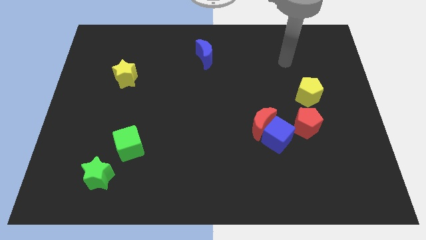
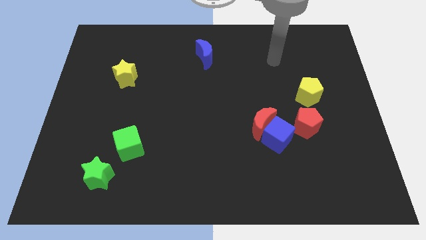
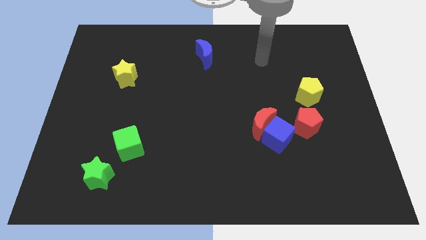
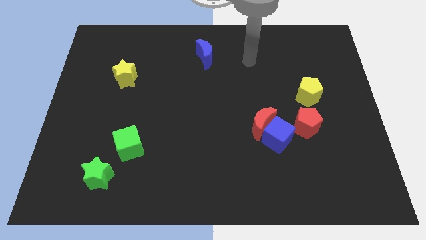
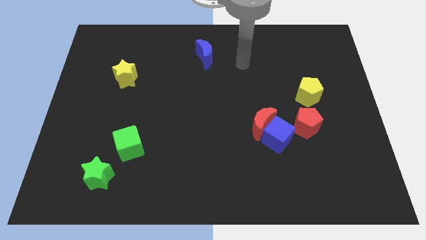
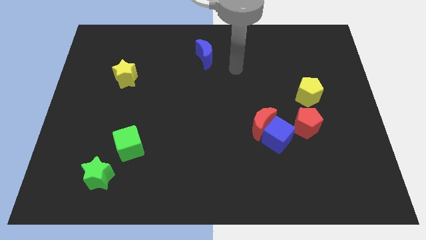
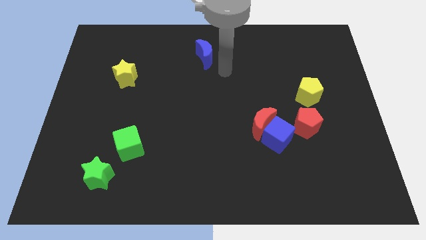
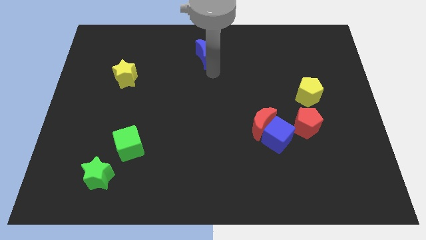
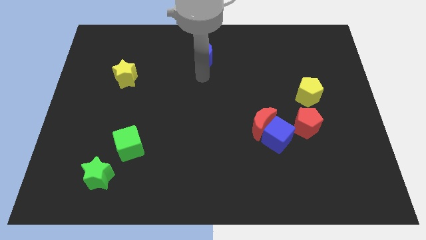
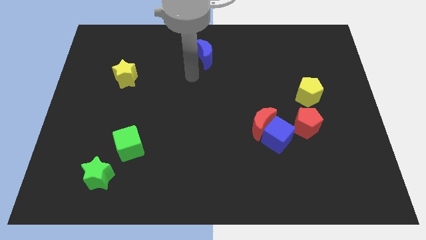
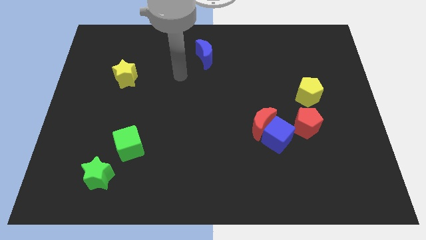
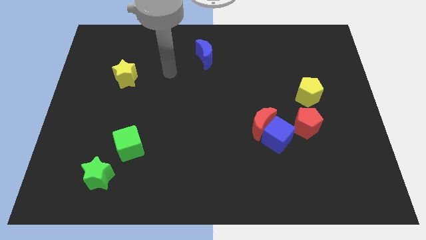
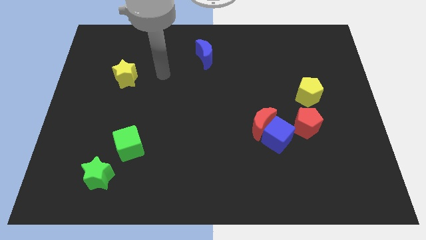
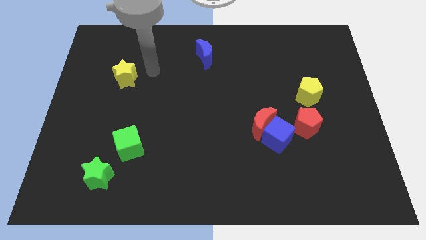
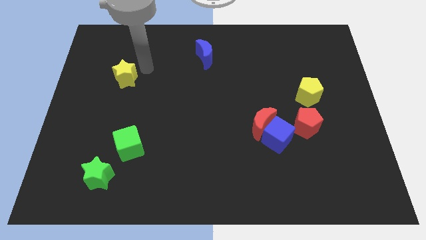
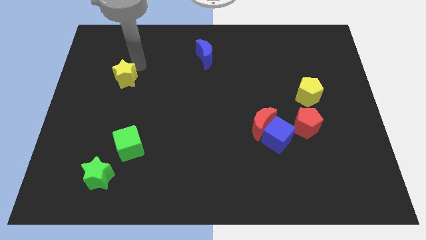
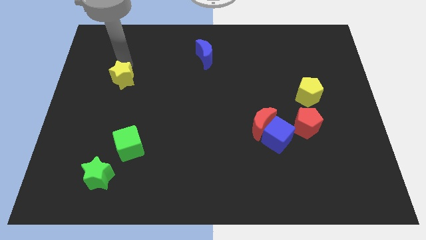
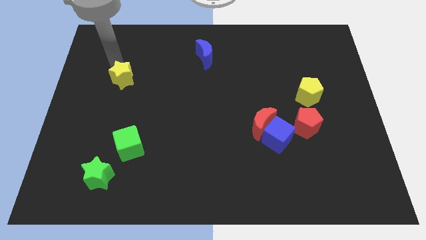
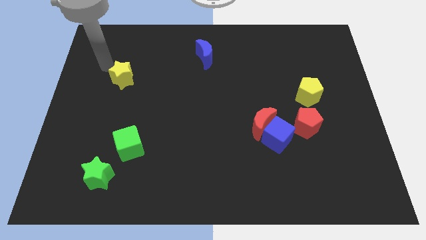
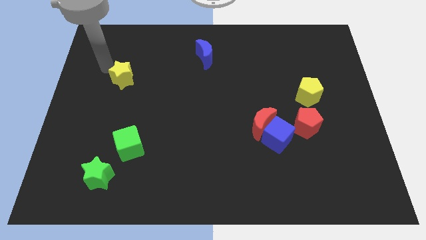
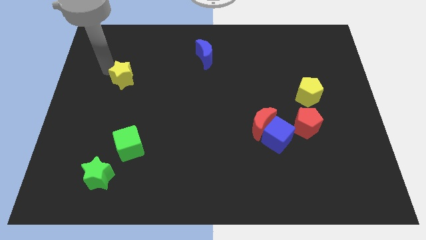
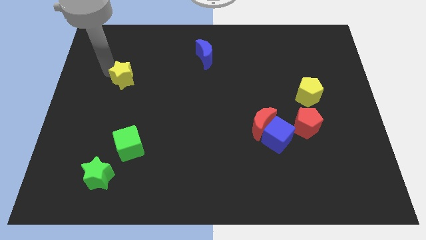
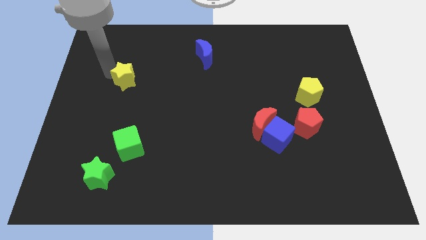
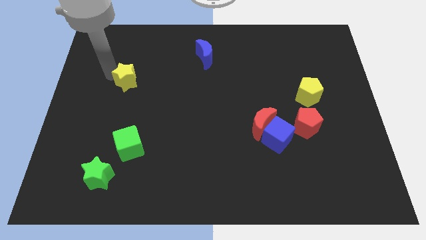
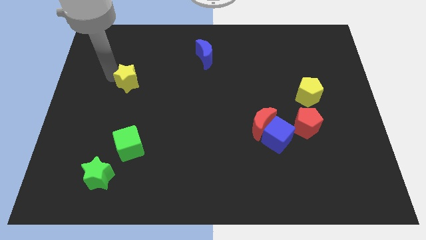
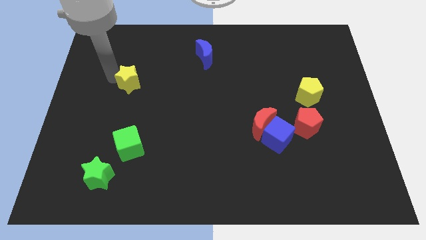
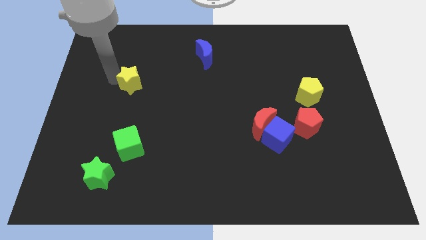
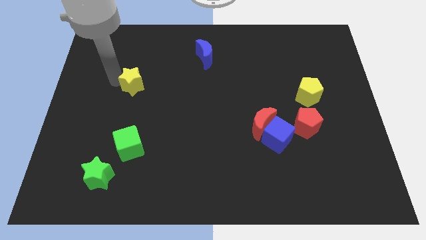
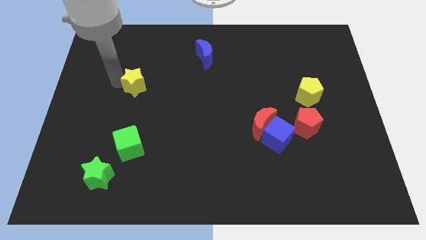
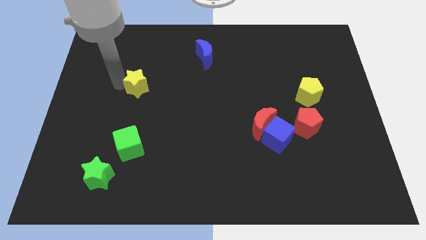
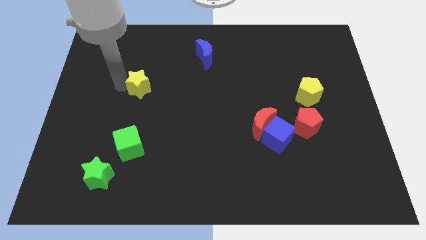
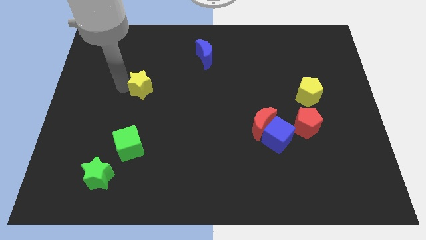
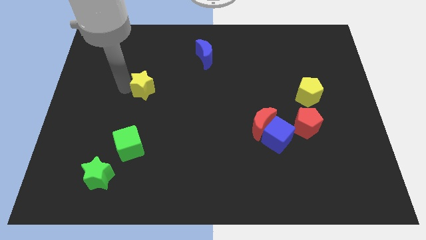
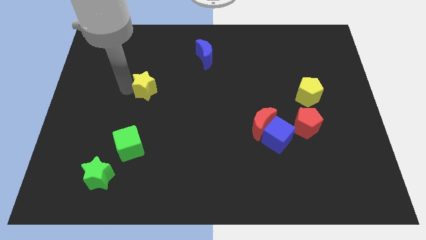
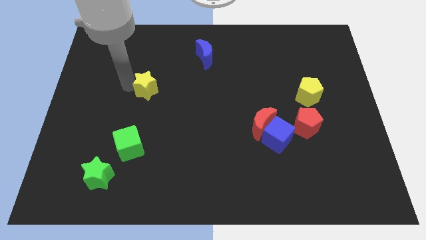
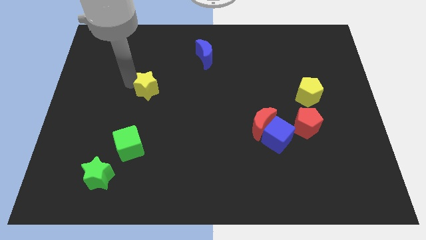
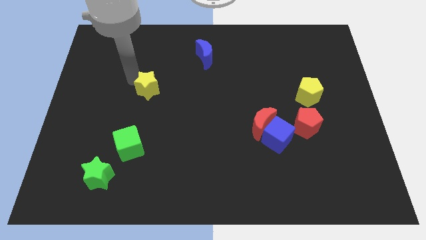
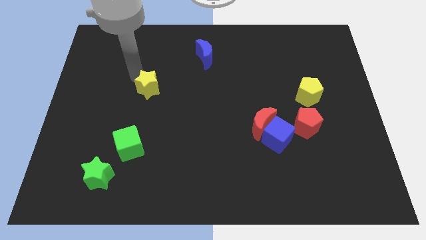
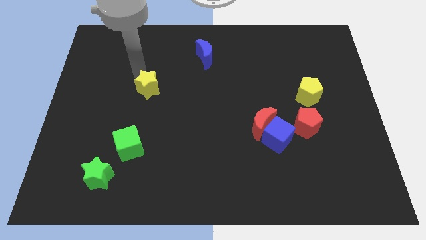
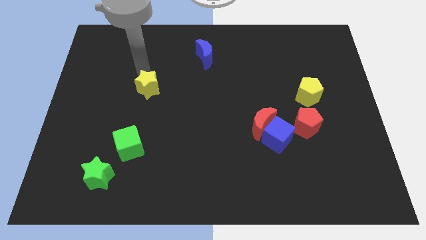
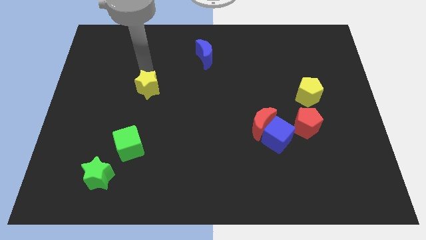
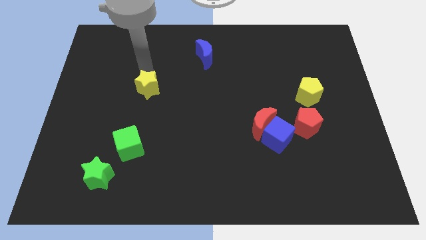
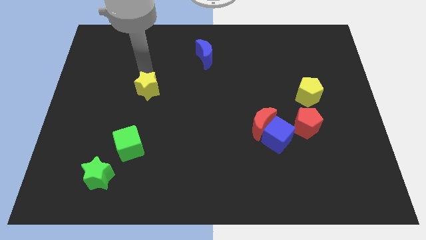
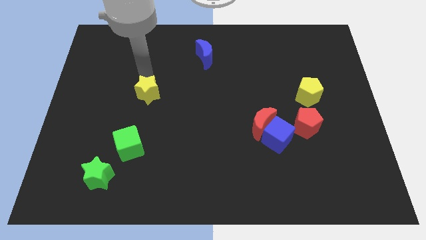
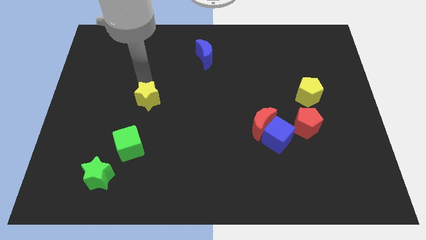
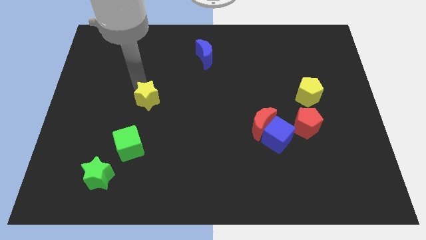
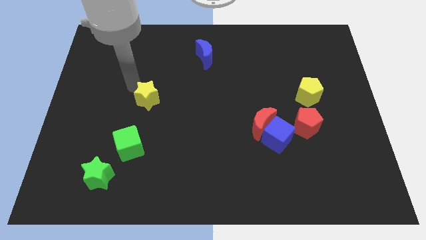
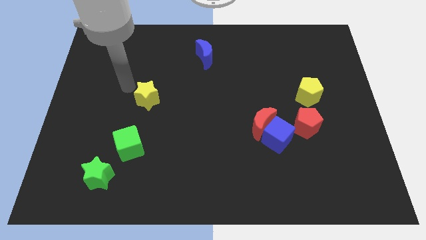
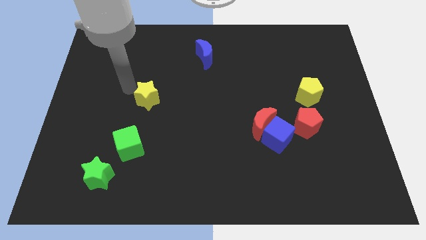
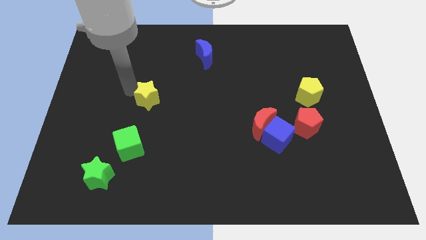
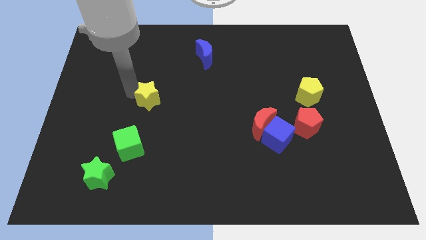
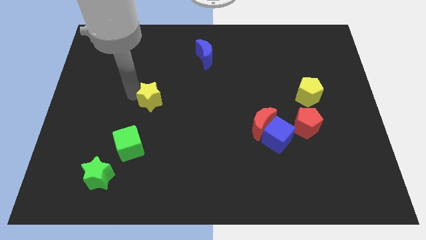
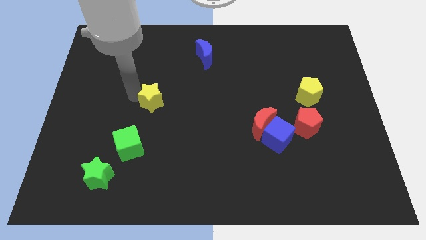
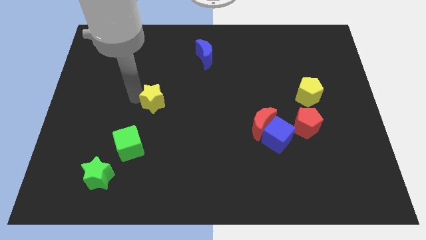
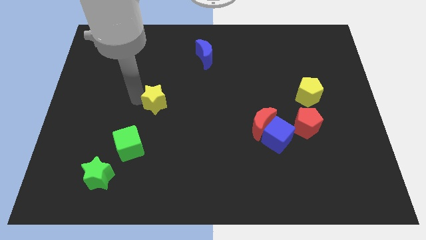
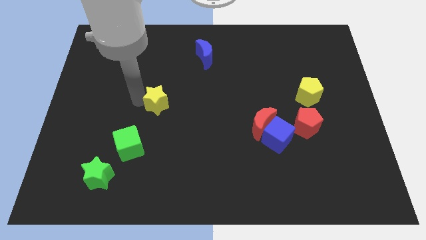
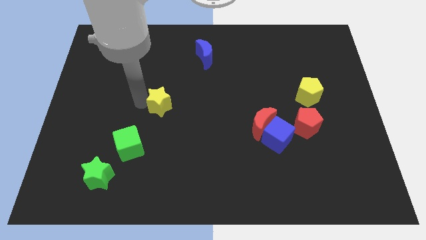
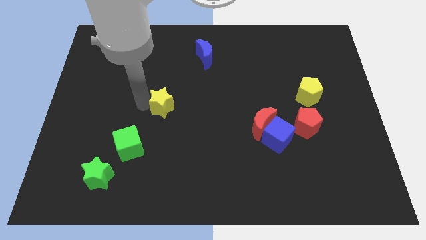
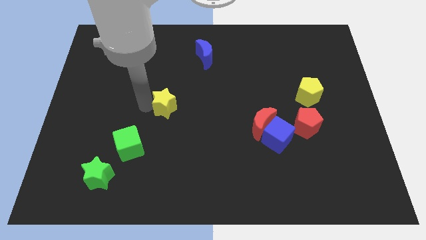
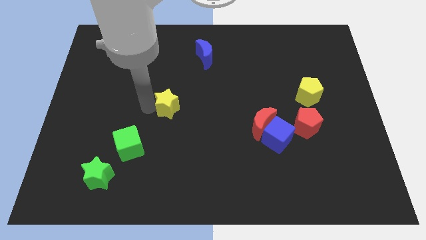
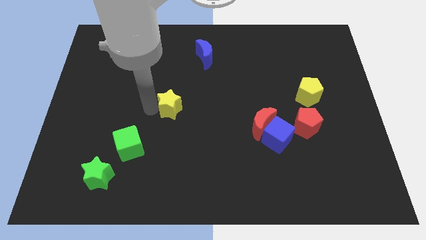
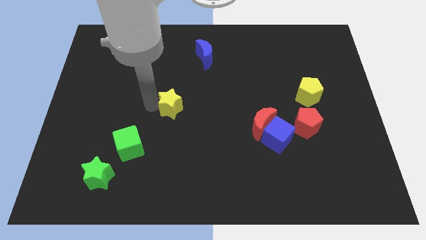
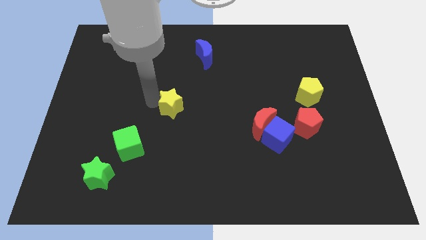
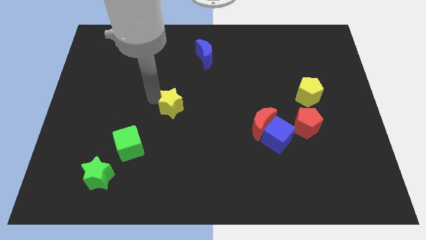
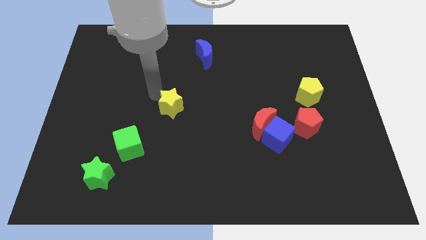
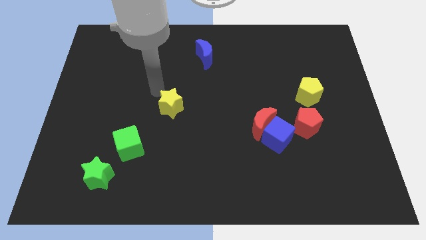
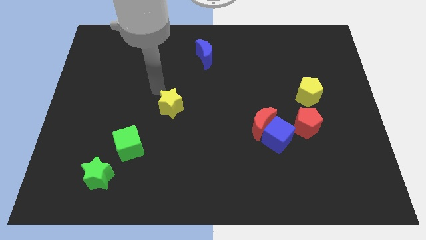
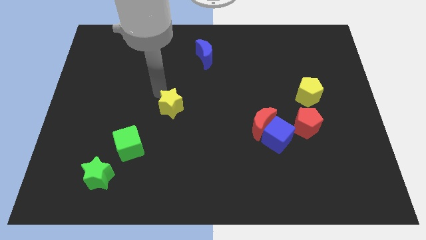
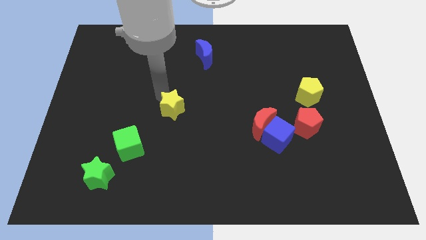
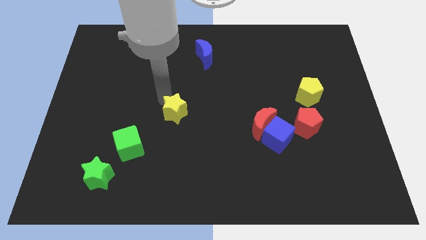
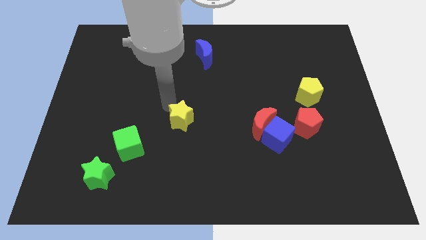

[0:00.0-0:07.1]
slide the yellow star down and then right

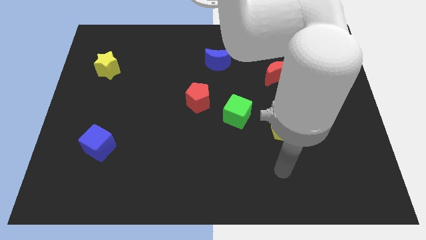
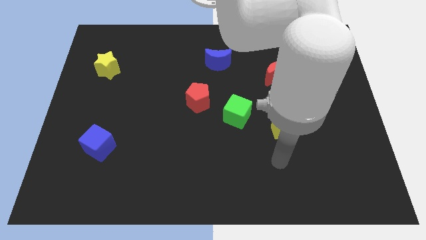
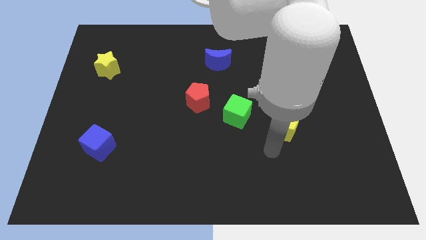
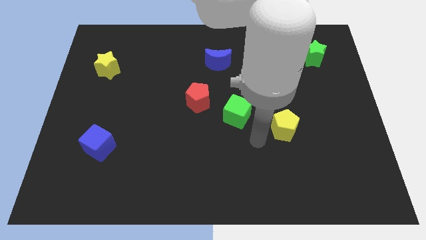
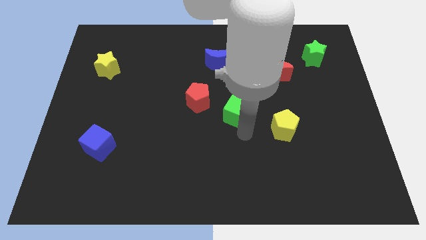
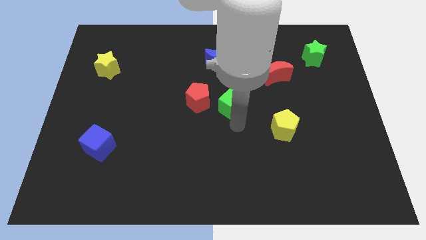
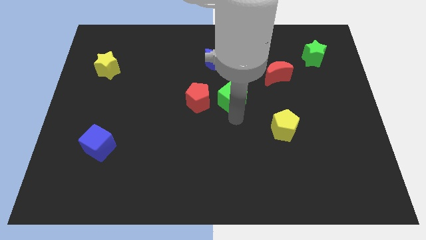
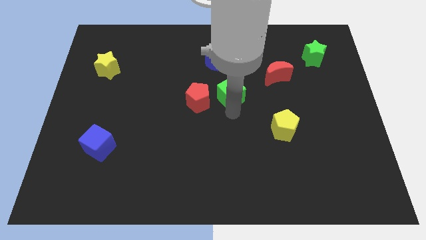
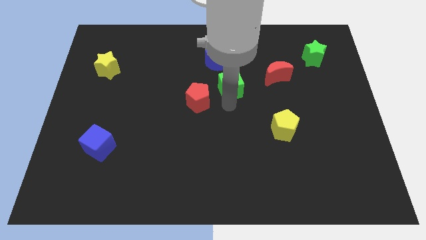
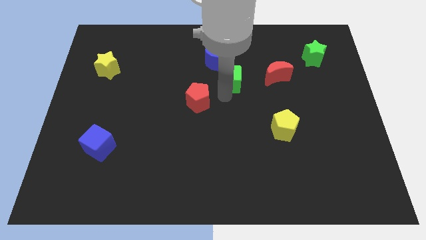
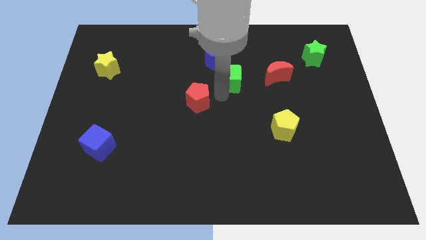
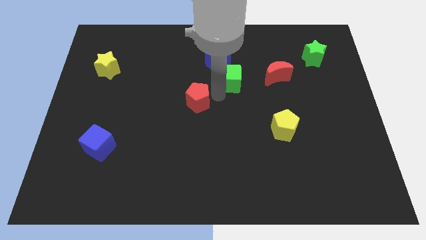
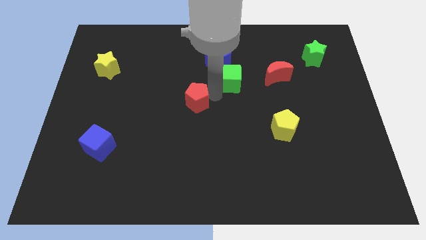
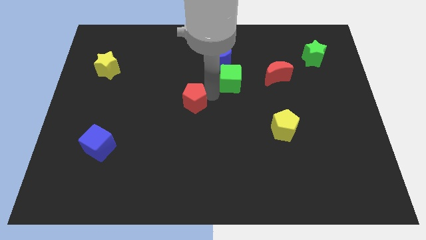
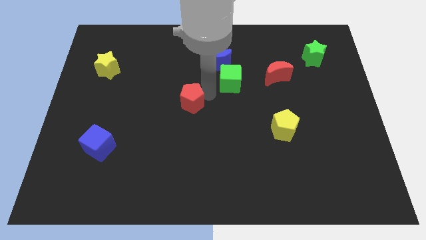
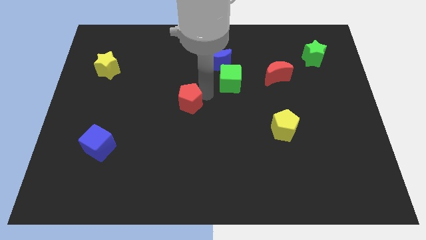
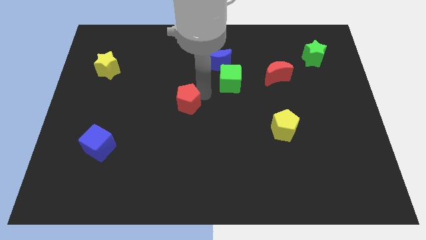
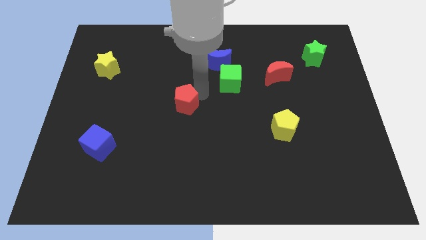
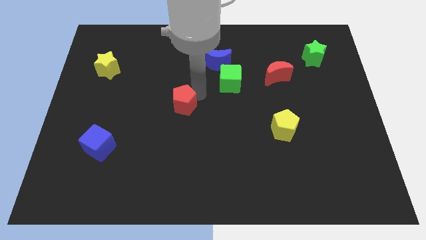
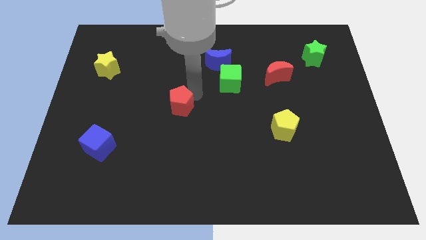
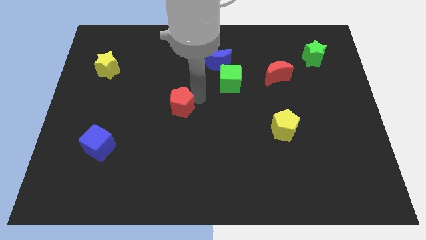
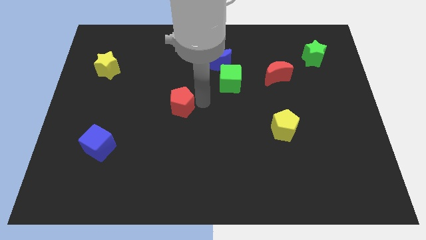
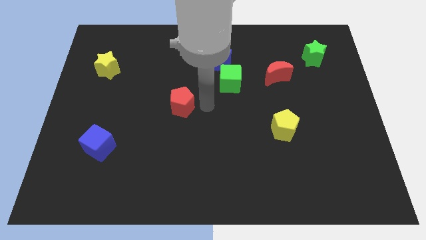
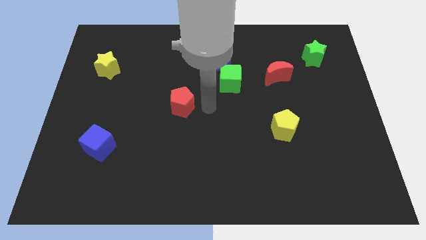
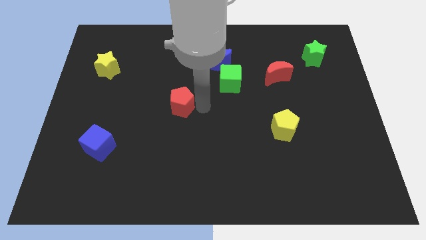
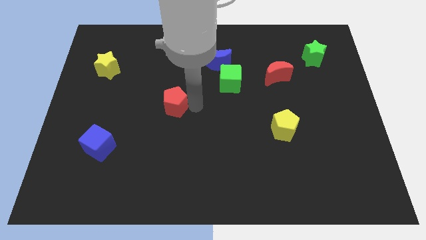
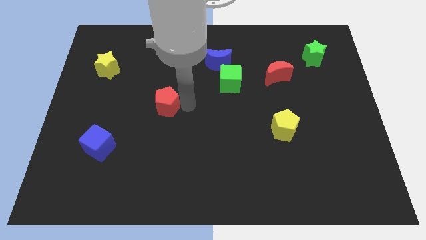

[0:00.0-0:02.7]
slide the red pentagon a little bit to the left
